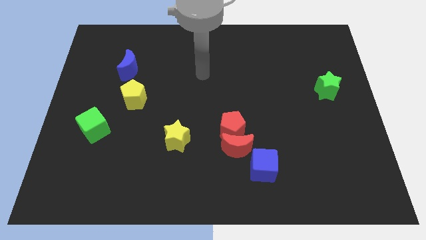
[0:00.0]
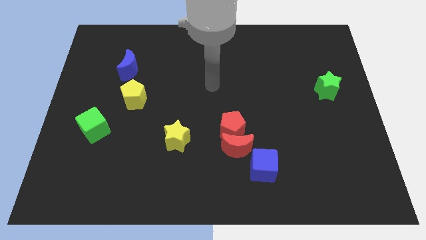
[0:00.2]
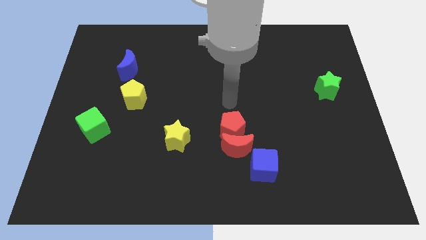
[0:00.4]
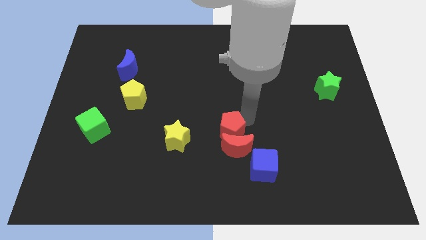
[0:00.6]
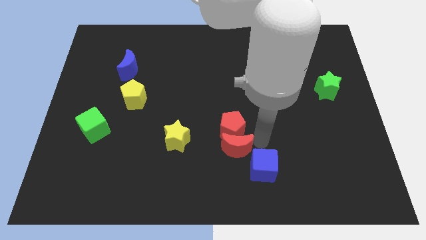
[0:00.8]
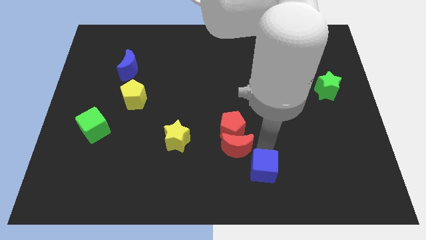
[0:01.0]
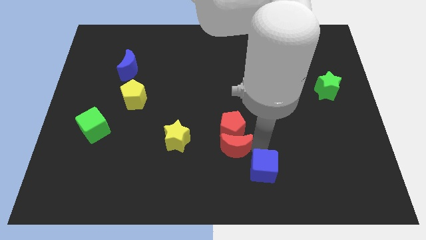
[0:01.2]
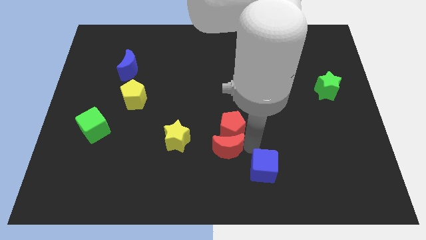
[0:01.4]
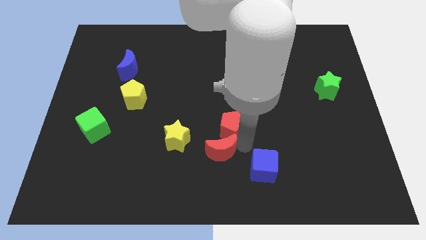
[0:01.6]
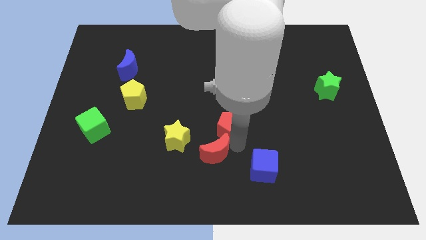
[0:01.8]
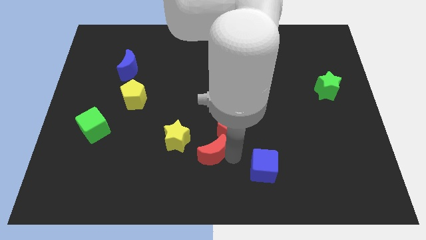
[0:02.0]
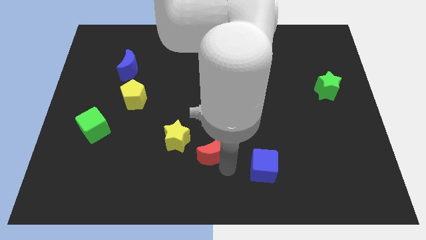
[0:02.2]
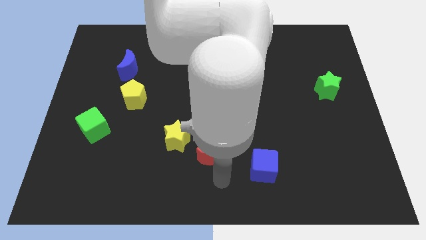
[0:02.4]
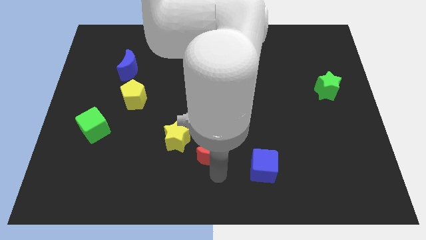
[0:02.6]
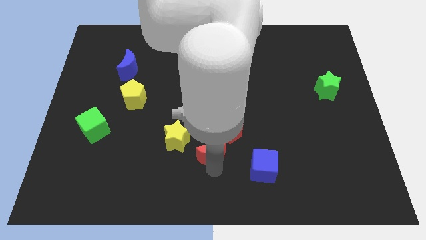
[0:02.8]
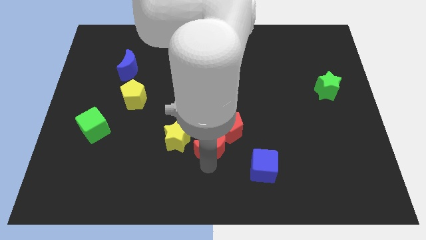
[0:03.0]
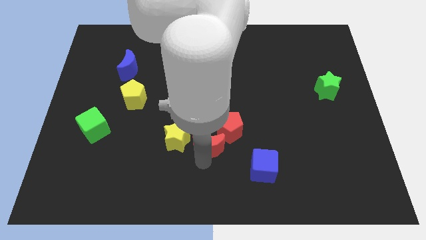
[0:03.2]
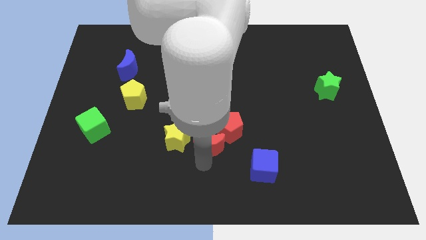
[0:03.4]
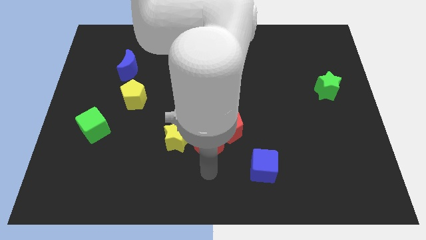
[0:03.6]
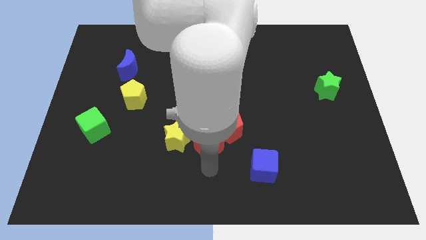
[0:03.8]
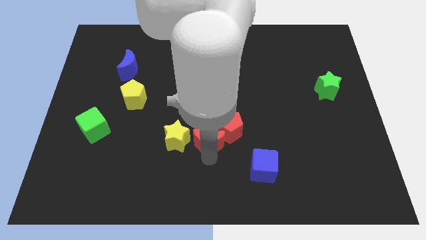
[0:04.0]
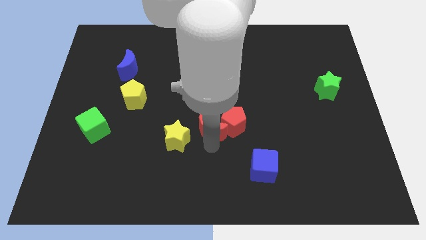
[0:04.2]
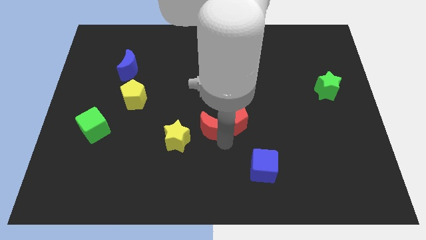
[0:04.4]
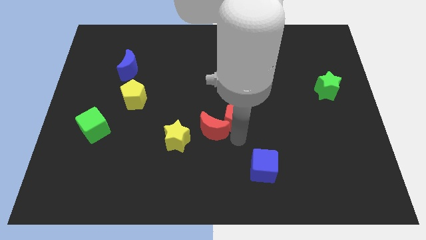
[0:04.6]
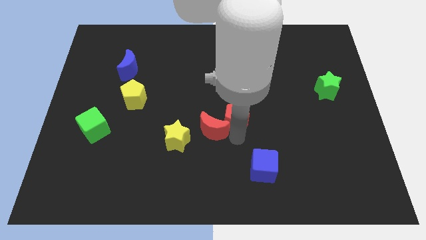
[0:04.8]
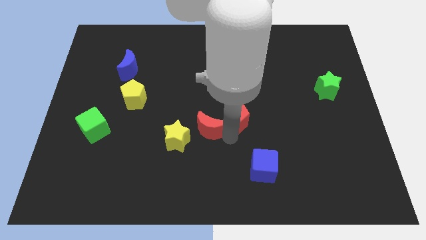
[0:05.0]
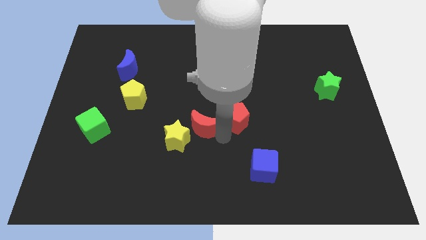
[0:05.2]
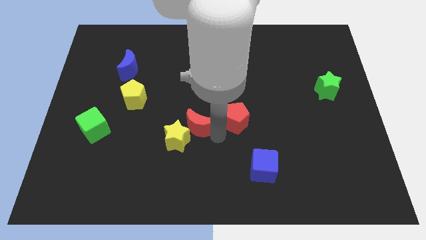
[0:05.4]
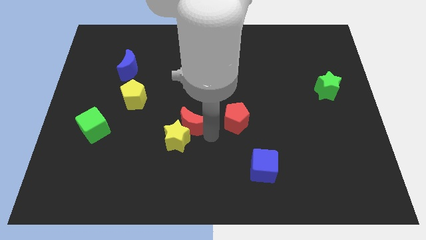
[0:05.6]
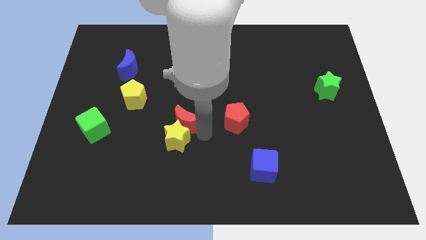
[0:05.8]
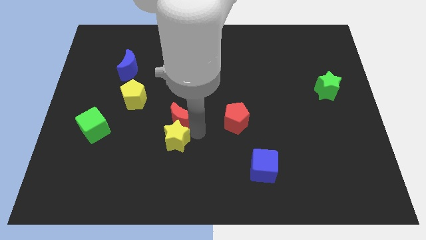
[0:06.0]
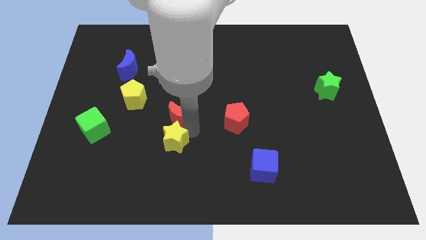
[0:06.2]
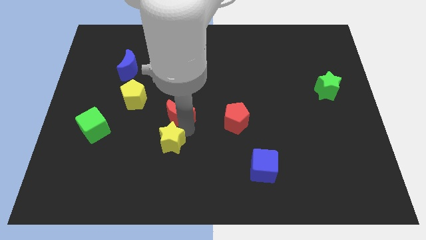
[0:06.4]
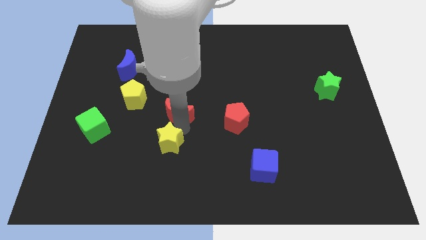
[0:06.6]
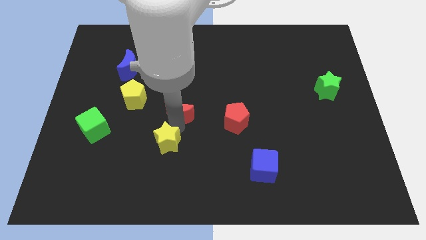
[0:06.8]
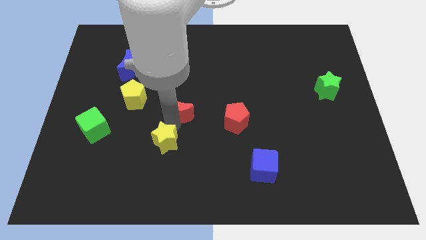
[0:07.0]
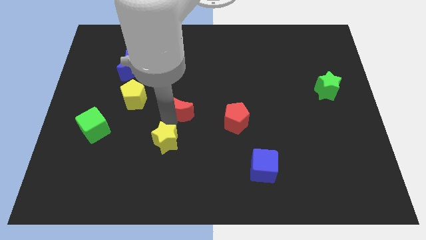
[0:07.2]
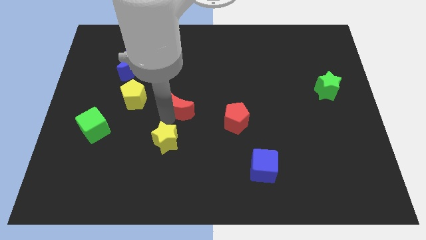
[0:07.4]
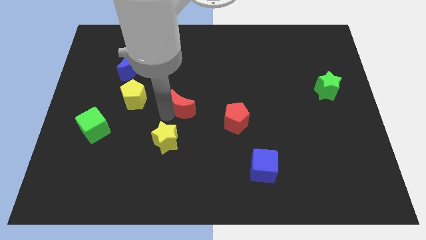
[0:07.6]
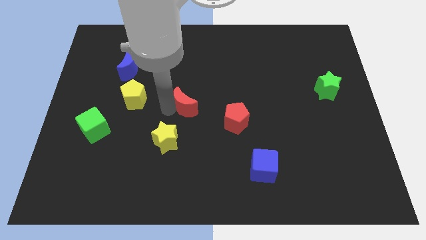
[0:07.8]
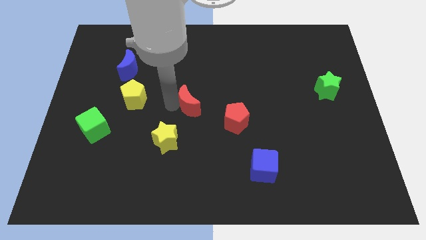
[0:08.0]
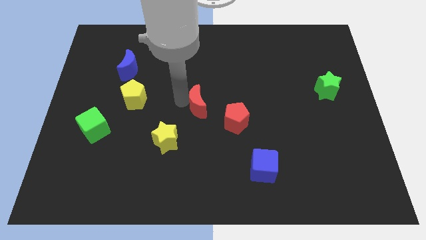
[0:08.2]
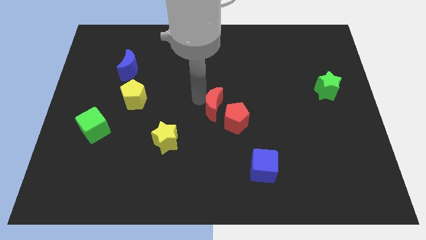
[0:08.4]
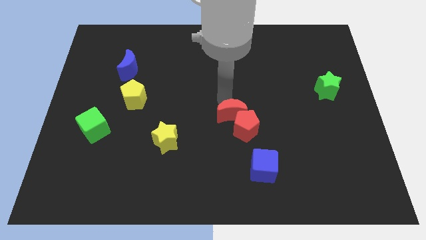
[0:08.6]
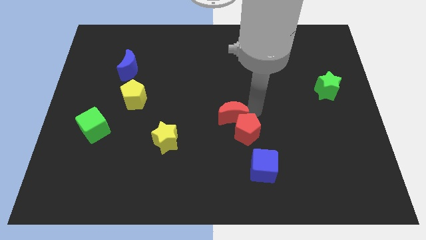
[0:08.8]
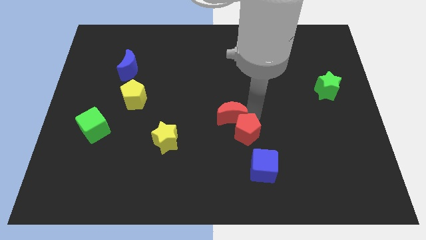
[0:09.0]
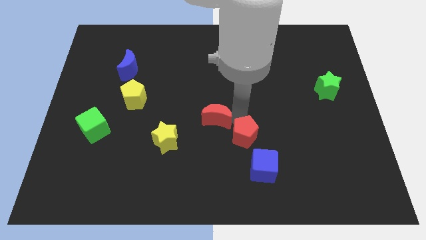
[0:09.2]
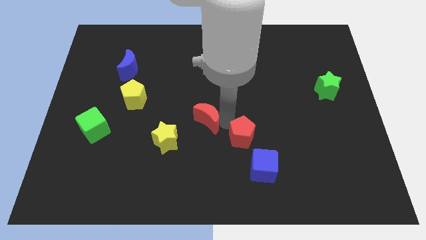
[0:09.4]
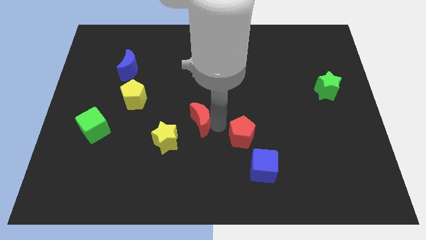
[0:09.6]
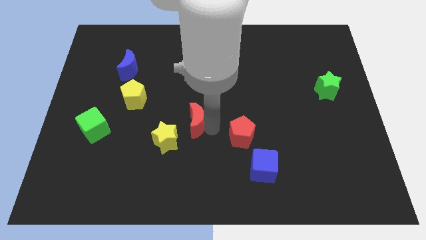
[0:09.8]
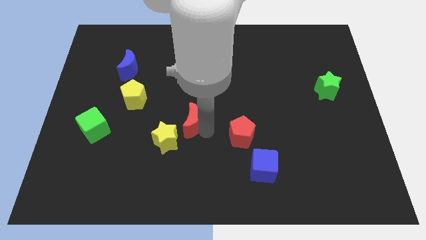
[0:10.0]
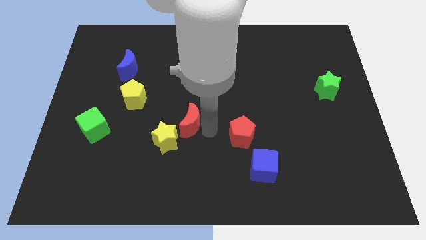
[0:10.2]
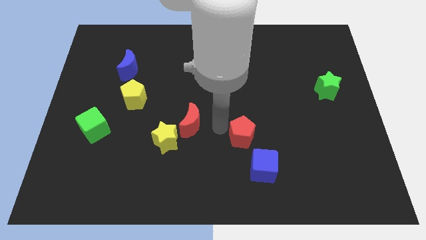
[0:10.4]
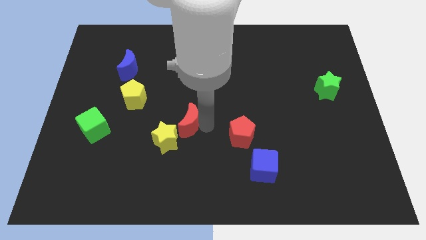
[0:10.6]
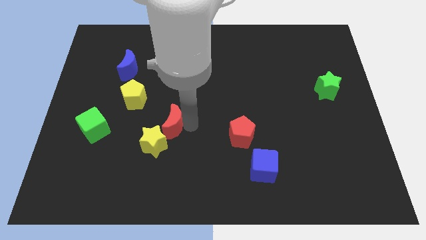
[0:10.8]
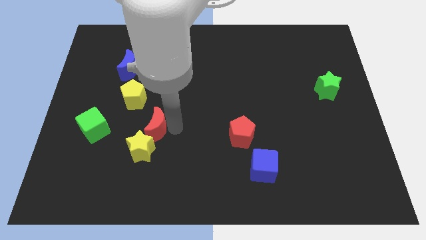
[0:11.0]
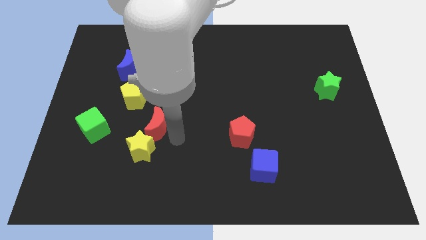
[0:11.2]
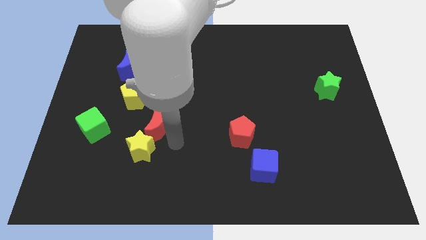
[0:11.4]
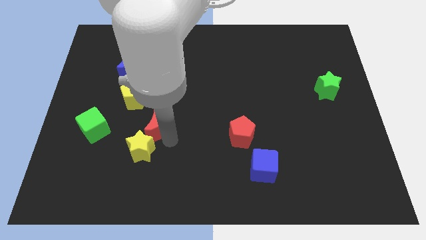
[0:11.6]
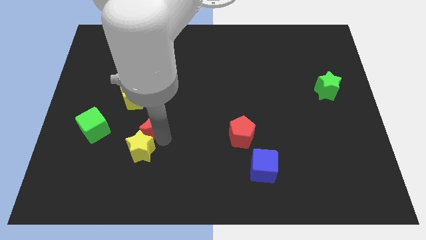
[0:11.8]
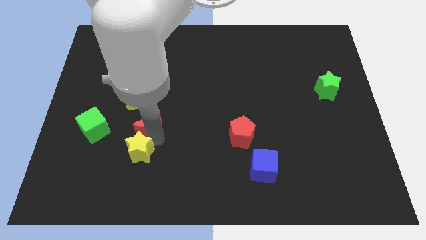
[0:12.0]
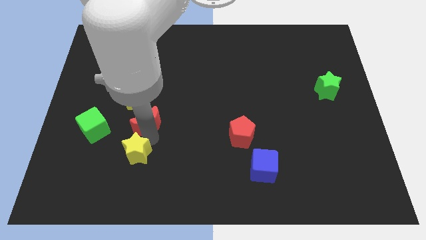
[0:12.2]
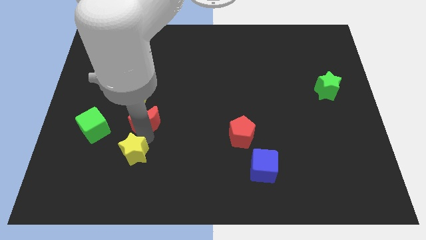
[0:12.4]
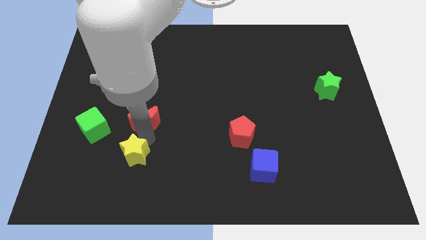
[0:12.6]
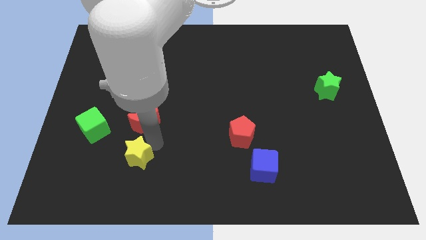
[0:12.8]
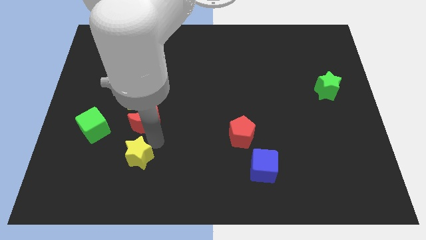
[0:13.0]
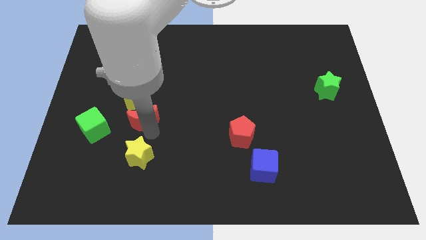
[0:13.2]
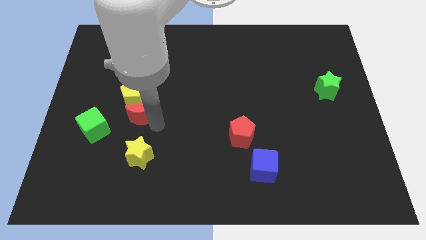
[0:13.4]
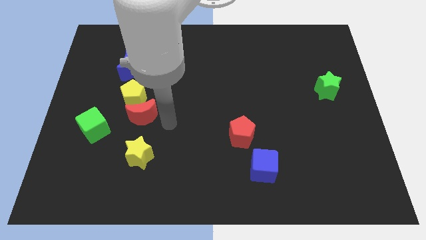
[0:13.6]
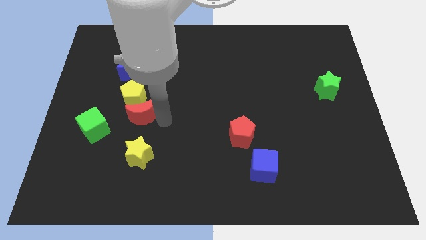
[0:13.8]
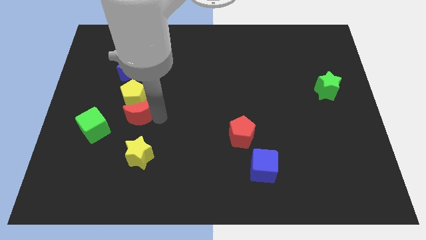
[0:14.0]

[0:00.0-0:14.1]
push the red moon to the top right side of the green cube
